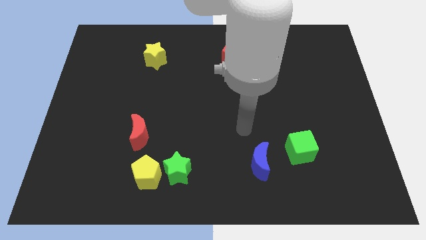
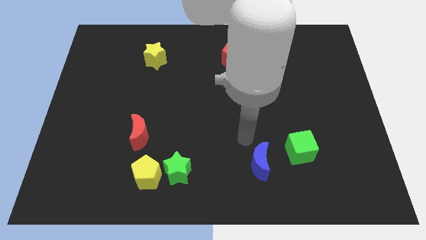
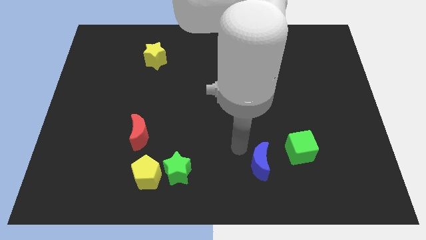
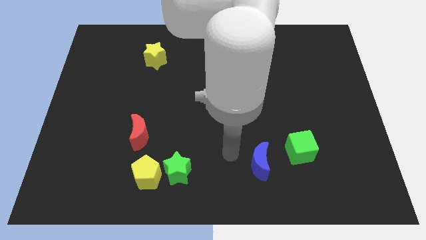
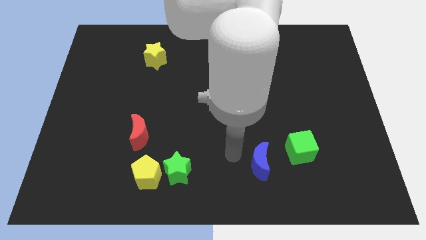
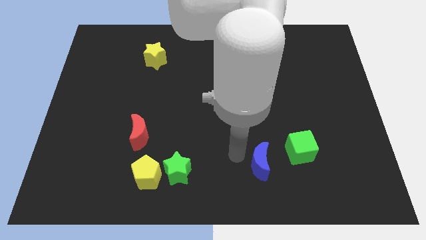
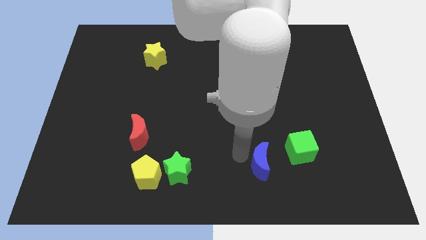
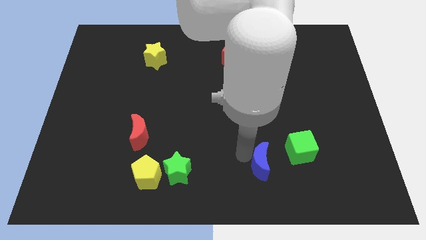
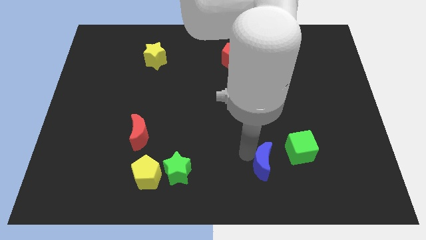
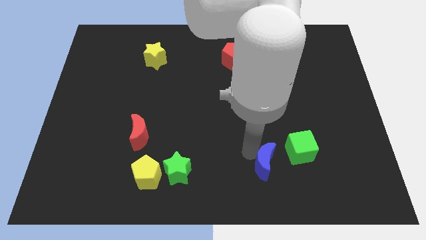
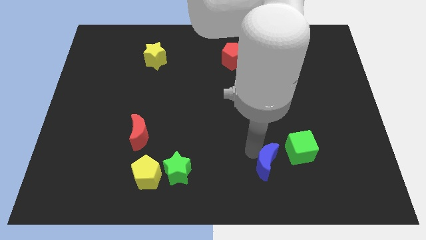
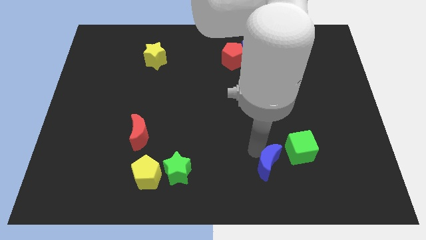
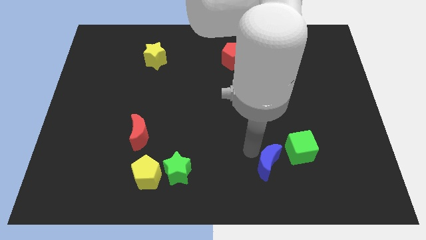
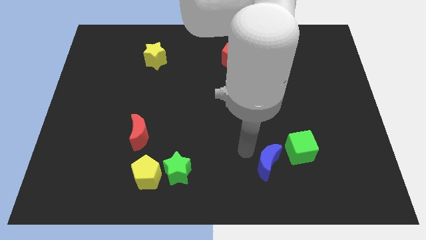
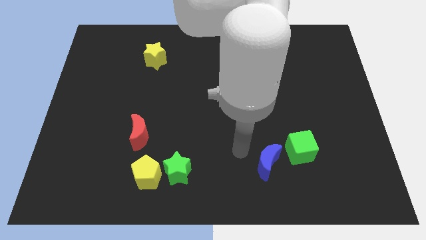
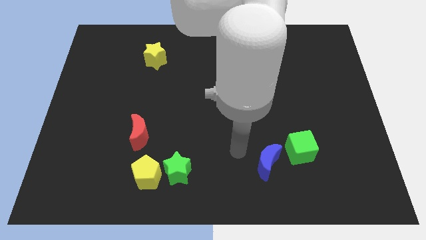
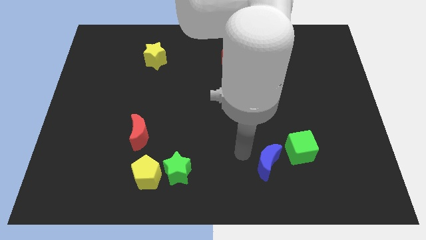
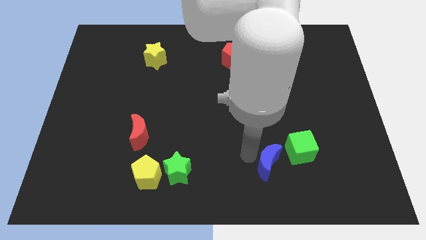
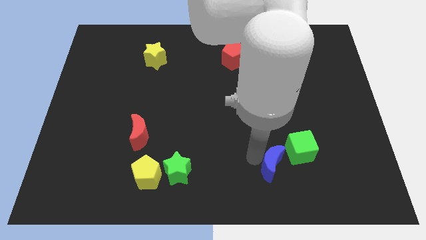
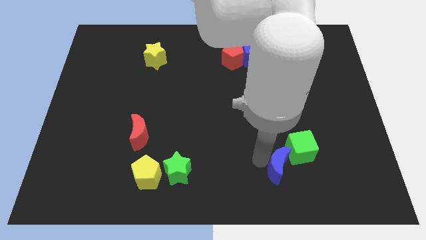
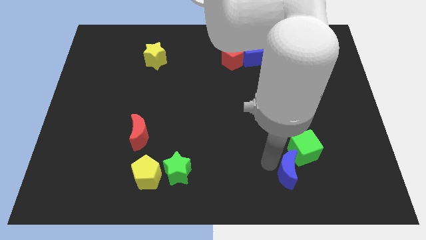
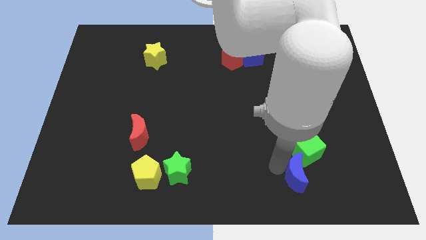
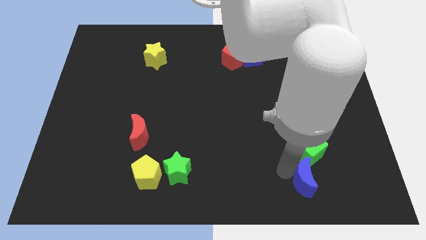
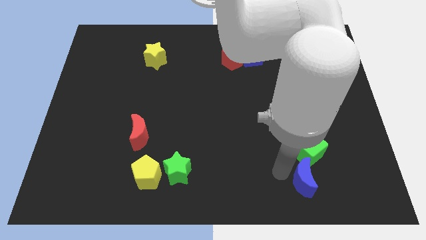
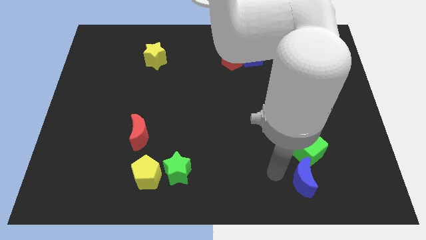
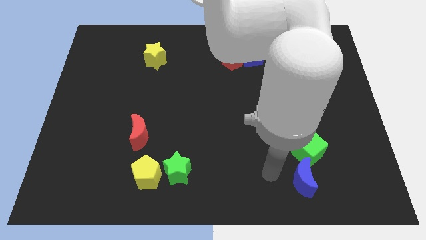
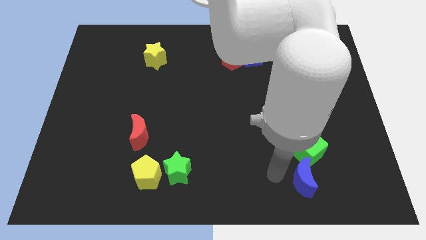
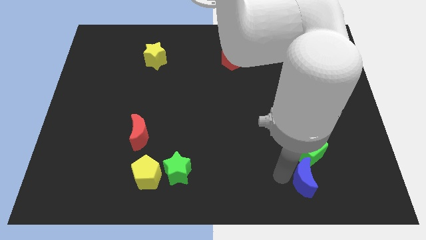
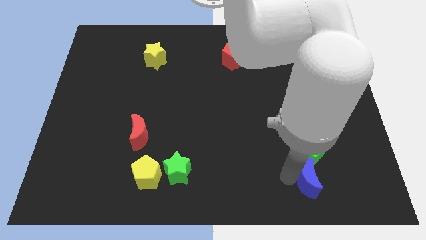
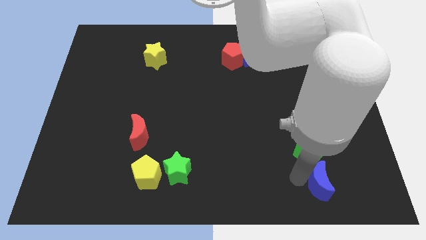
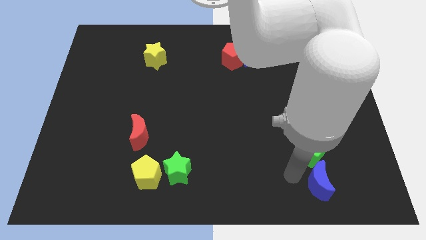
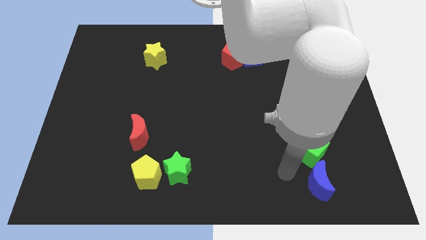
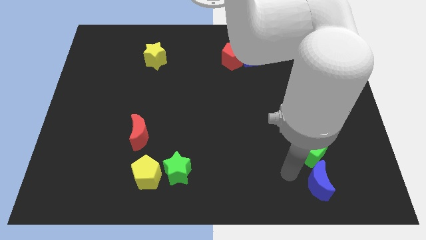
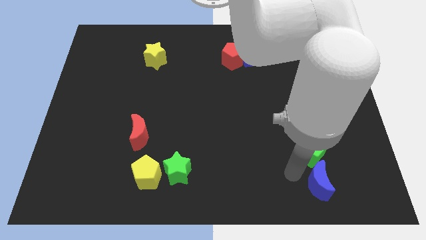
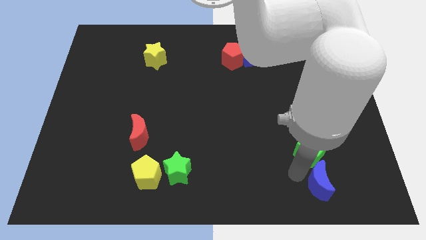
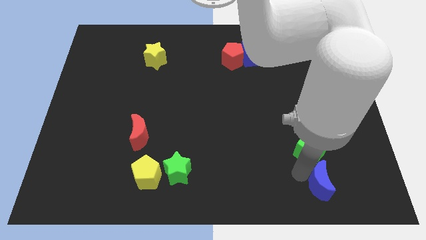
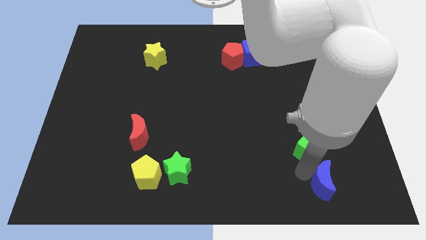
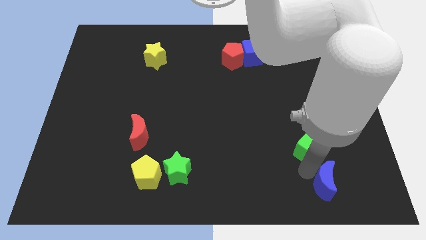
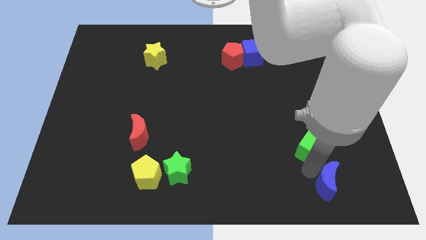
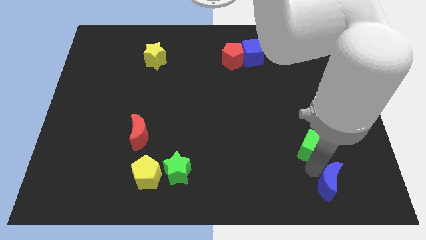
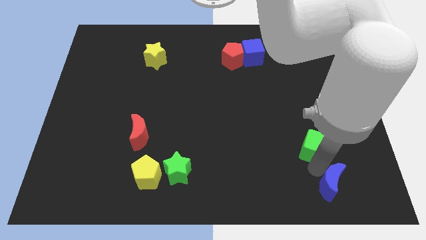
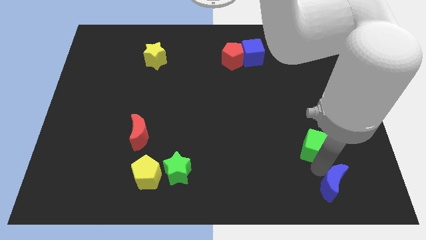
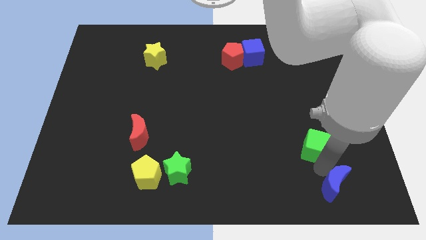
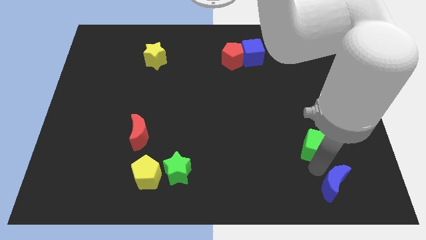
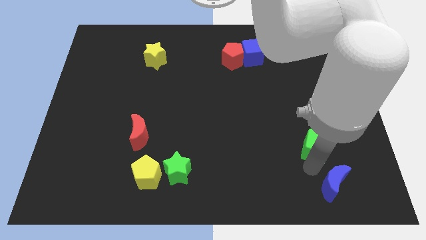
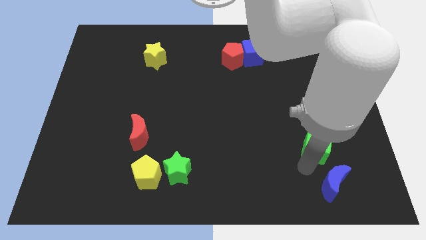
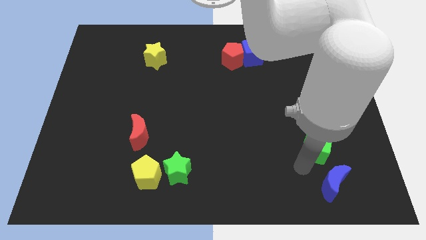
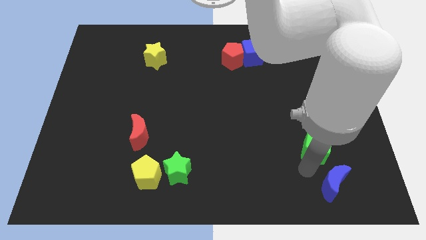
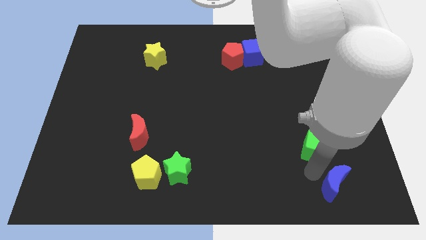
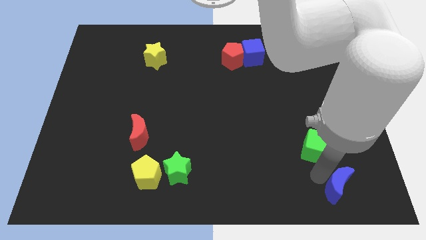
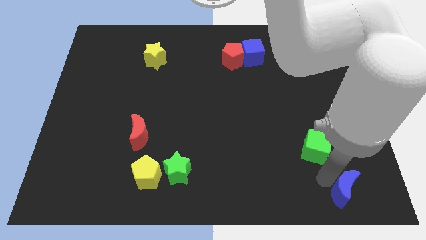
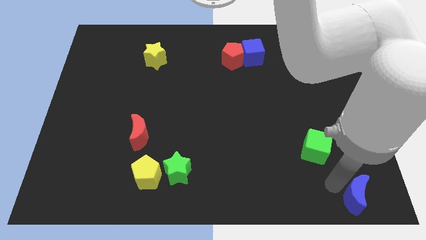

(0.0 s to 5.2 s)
put the blue moon to the bottom right
